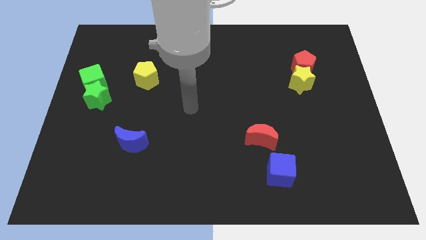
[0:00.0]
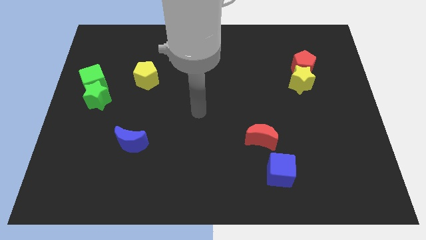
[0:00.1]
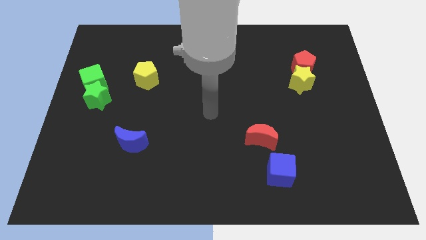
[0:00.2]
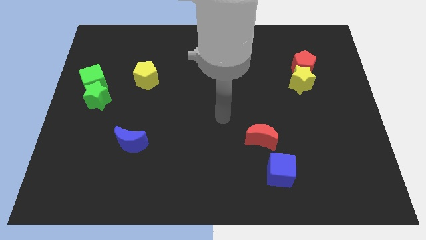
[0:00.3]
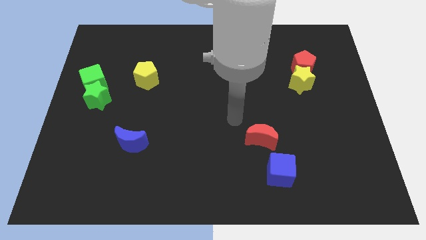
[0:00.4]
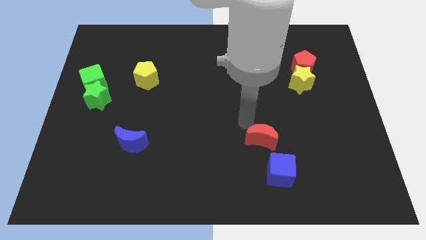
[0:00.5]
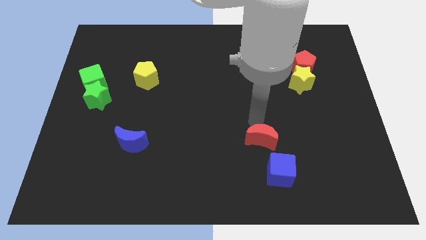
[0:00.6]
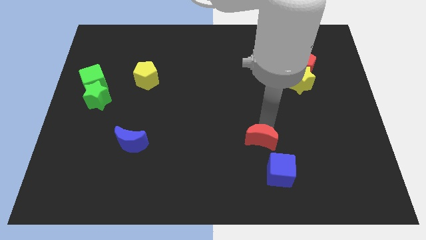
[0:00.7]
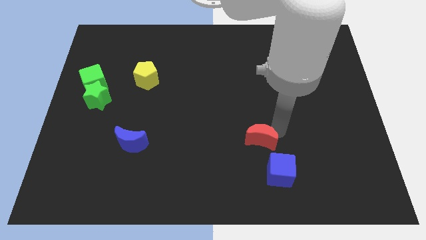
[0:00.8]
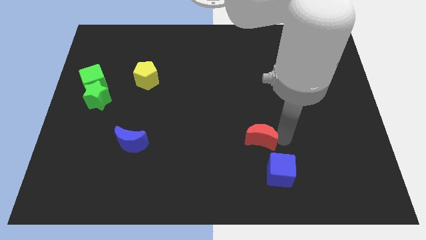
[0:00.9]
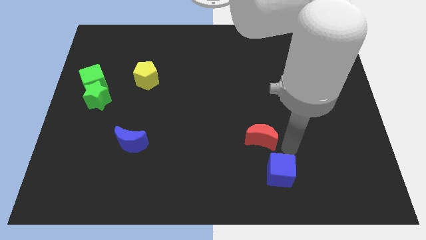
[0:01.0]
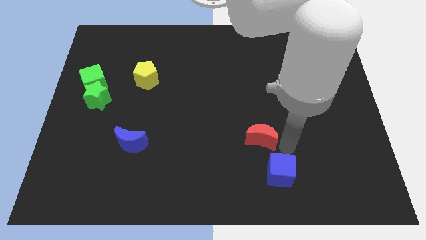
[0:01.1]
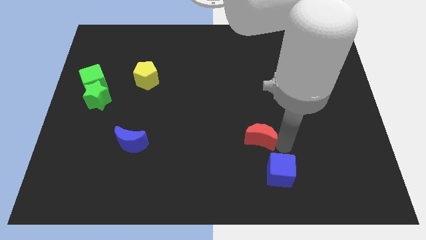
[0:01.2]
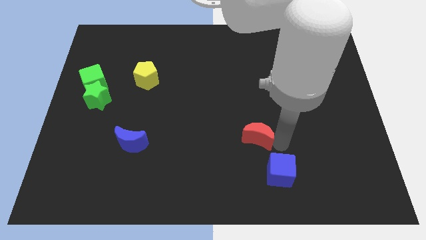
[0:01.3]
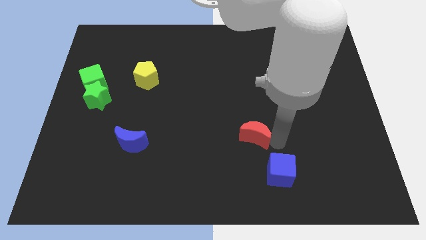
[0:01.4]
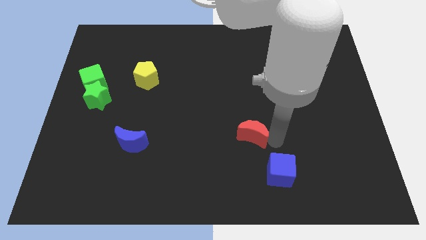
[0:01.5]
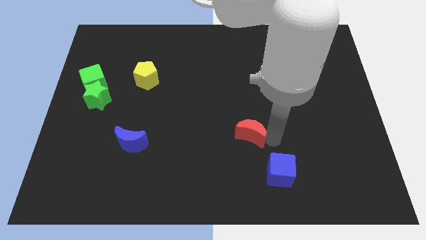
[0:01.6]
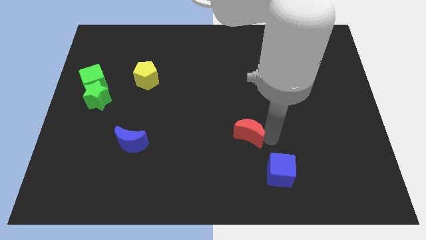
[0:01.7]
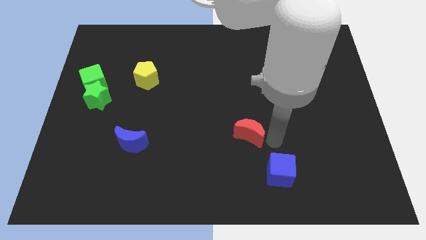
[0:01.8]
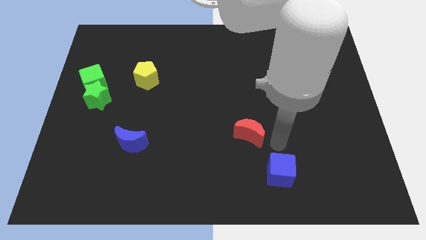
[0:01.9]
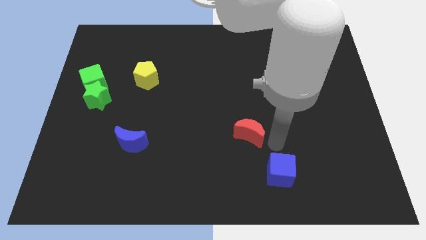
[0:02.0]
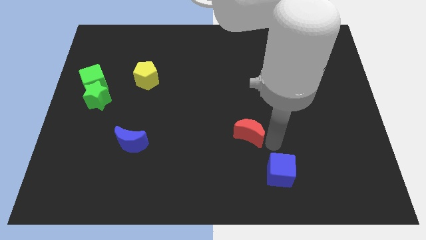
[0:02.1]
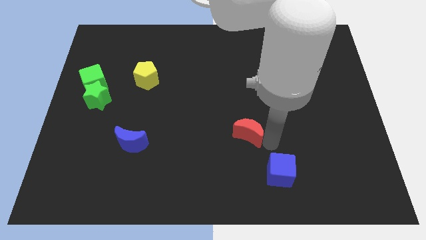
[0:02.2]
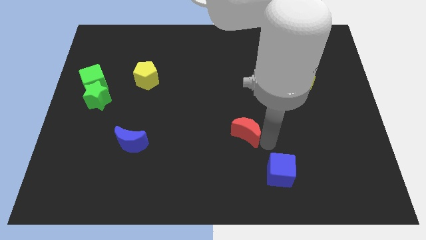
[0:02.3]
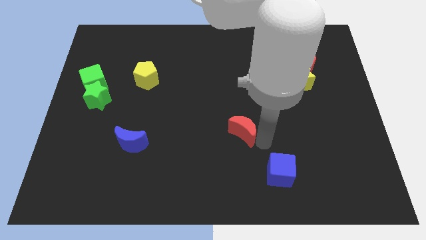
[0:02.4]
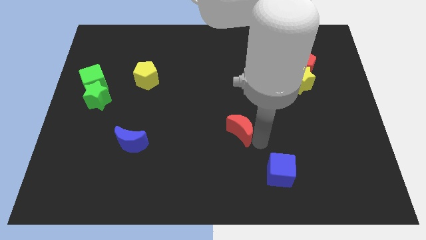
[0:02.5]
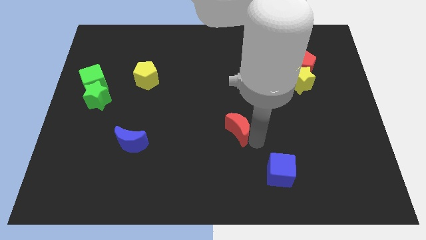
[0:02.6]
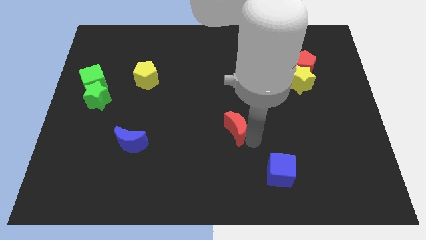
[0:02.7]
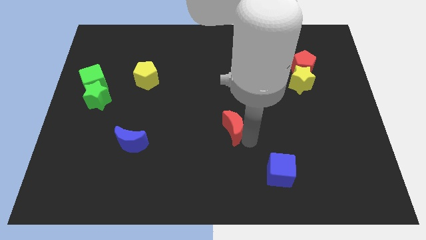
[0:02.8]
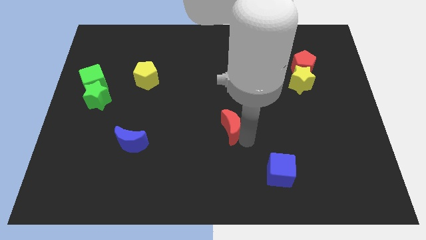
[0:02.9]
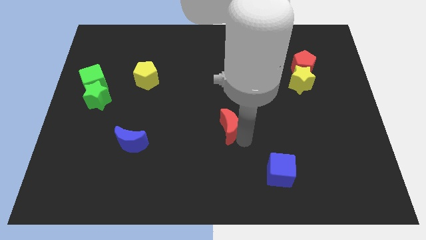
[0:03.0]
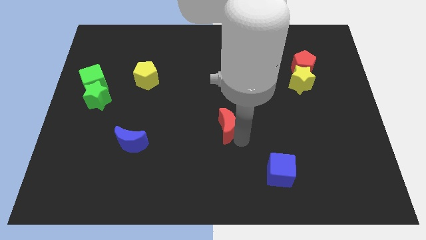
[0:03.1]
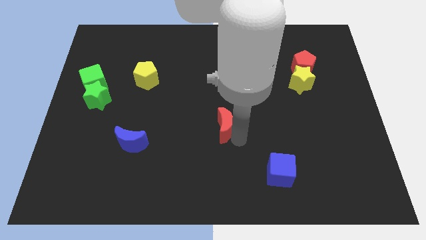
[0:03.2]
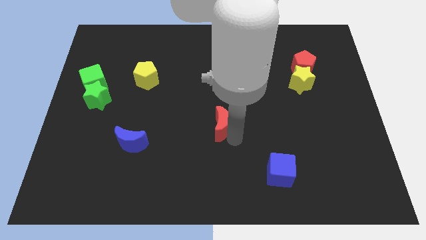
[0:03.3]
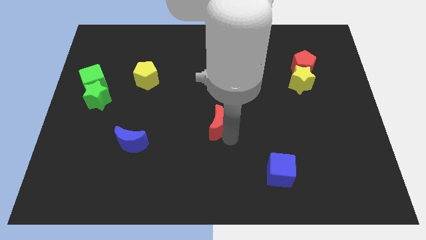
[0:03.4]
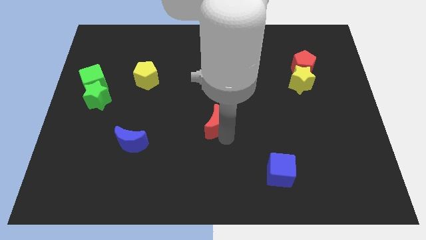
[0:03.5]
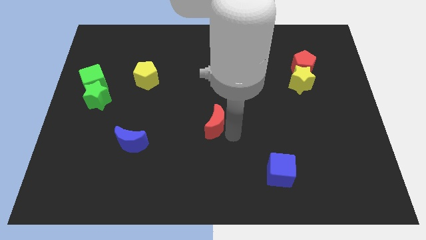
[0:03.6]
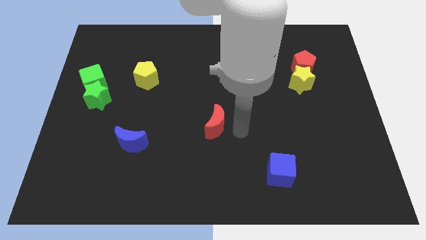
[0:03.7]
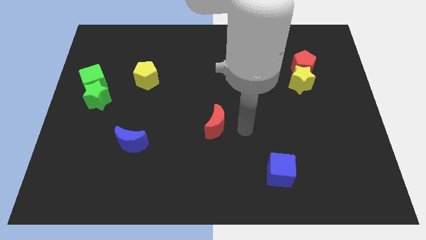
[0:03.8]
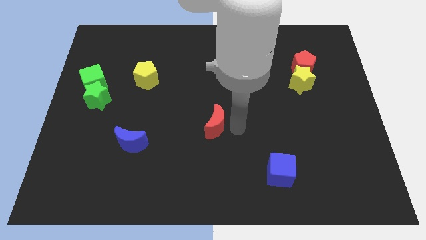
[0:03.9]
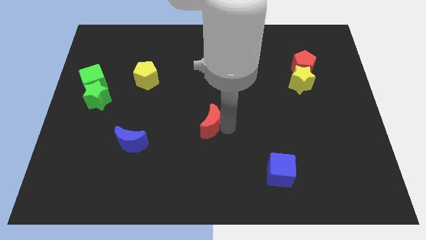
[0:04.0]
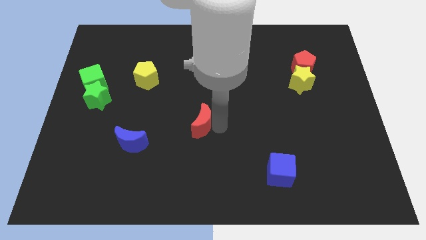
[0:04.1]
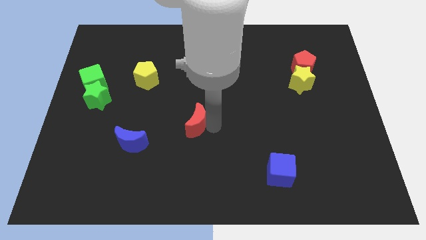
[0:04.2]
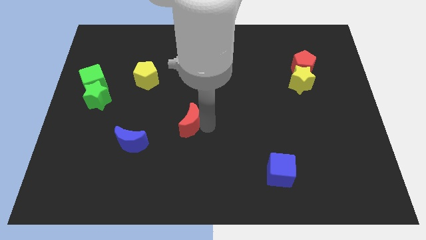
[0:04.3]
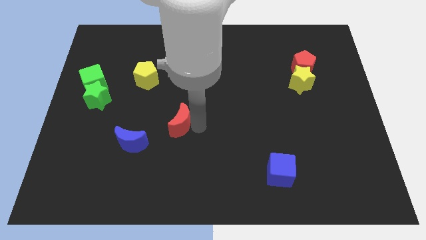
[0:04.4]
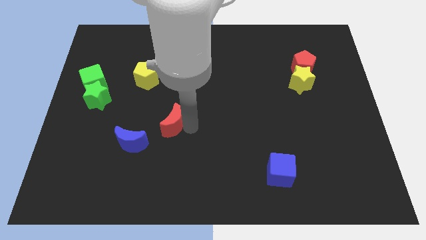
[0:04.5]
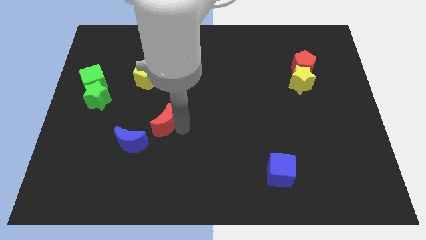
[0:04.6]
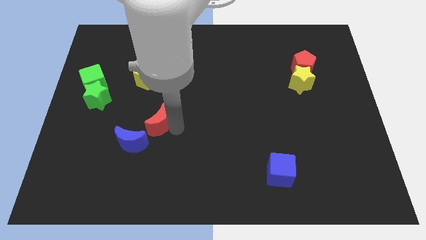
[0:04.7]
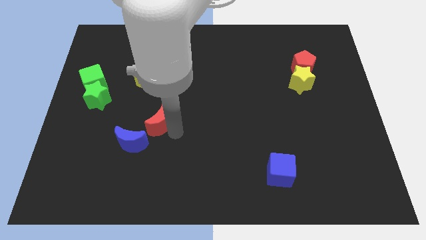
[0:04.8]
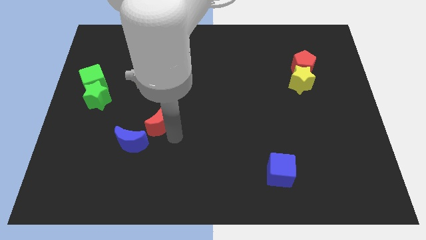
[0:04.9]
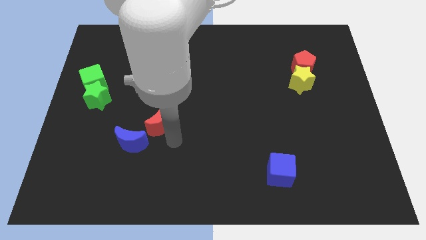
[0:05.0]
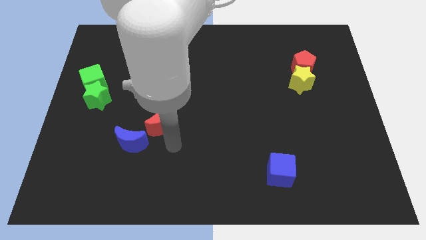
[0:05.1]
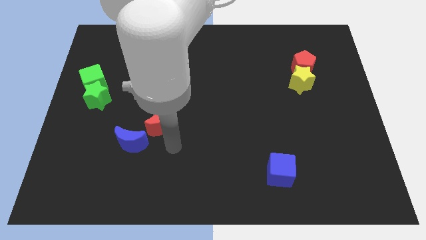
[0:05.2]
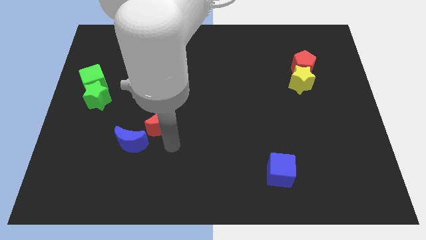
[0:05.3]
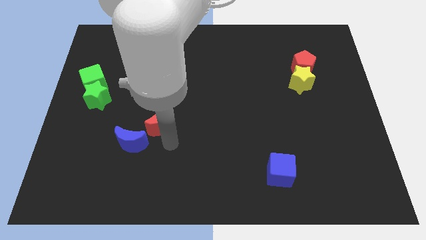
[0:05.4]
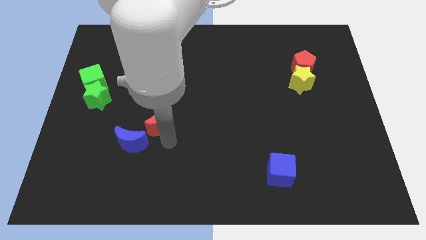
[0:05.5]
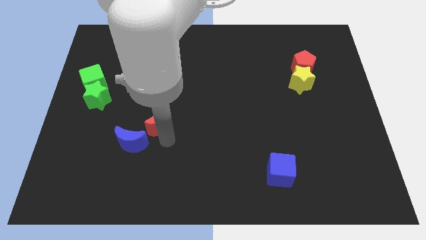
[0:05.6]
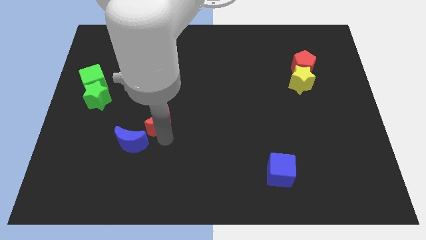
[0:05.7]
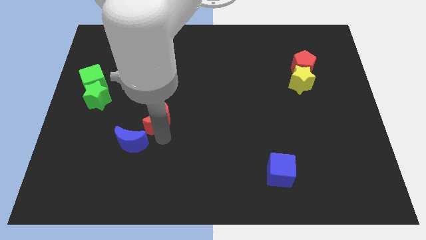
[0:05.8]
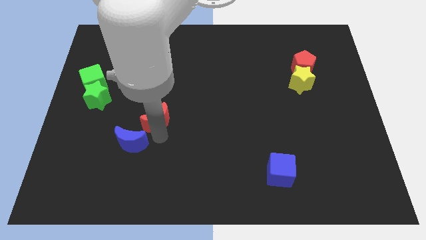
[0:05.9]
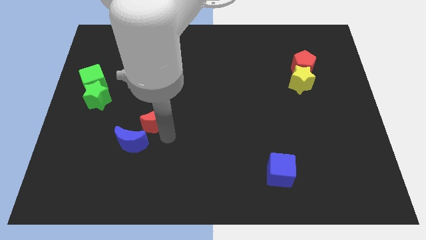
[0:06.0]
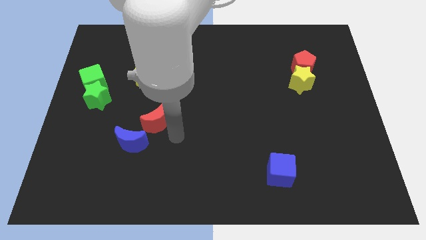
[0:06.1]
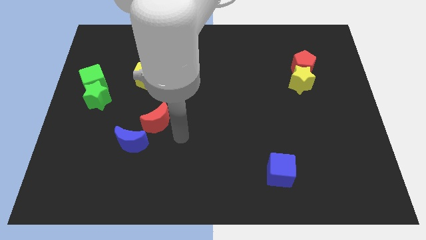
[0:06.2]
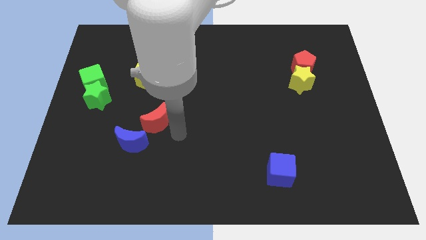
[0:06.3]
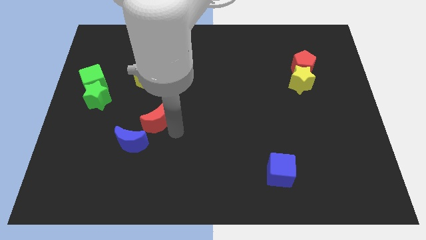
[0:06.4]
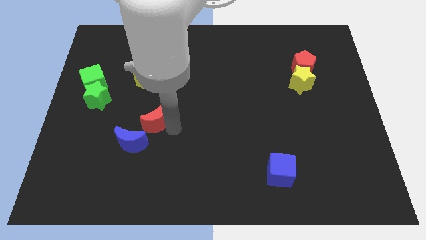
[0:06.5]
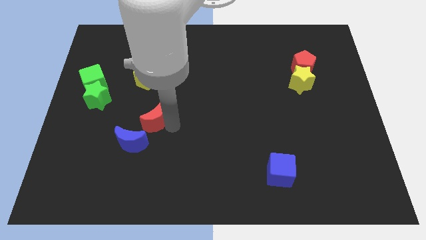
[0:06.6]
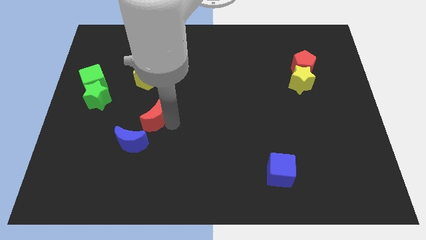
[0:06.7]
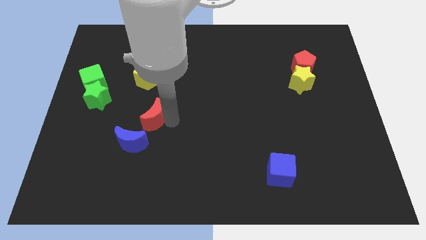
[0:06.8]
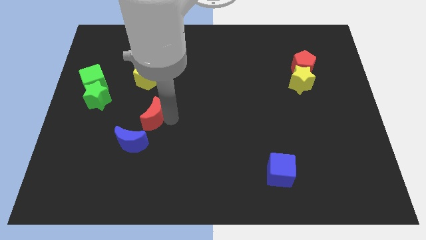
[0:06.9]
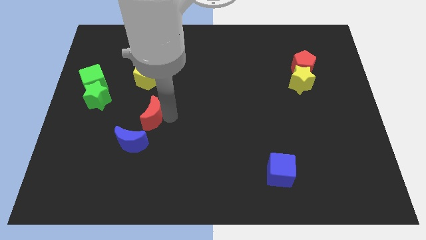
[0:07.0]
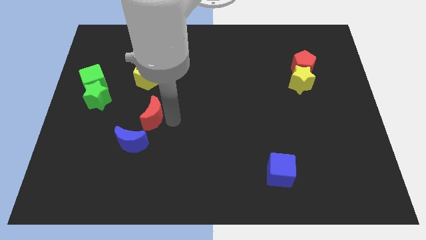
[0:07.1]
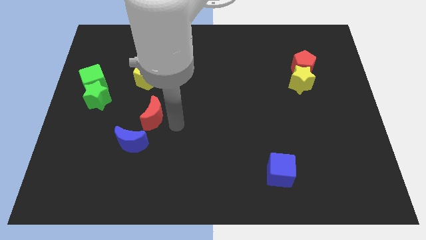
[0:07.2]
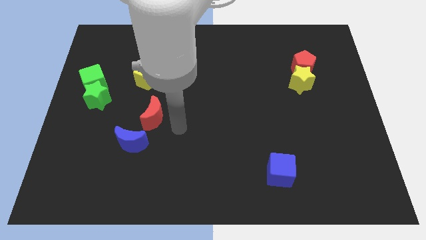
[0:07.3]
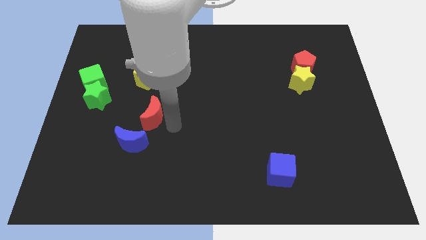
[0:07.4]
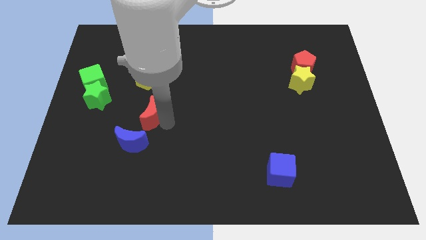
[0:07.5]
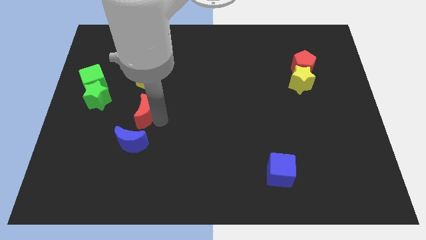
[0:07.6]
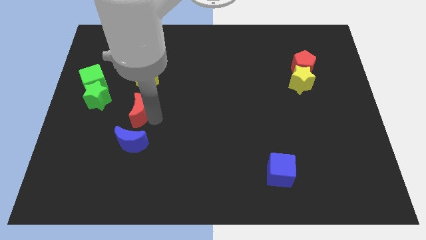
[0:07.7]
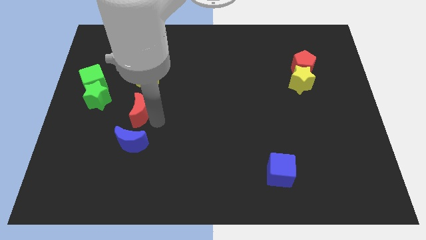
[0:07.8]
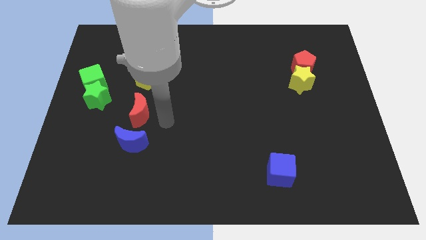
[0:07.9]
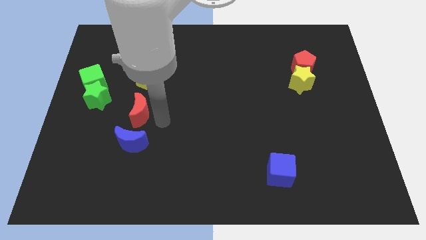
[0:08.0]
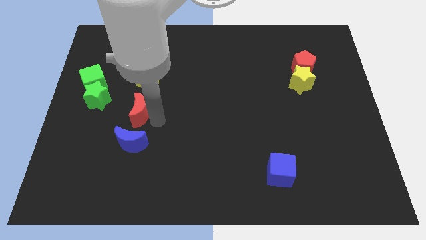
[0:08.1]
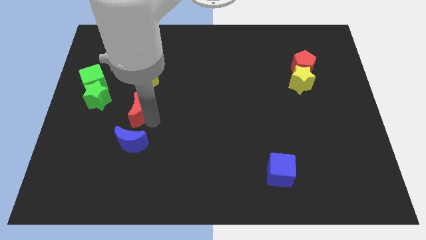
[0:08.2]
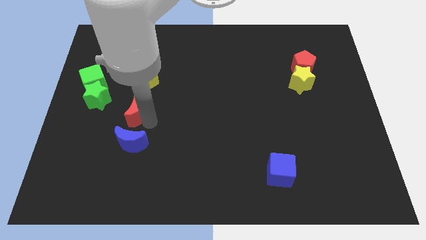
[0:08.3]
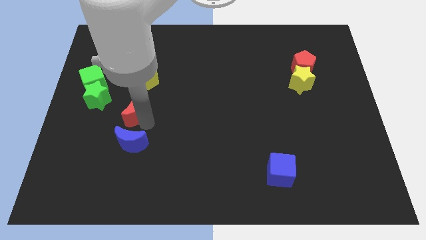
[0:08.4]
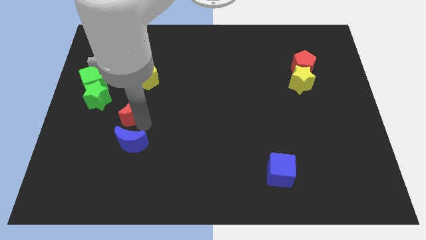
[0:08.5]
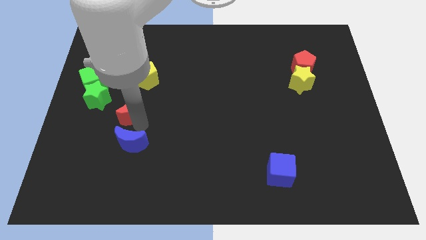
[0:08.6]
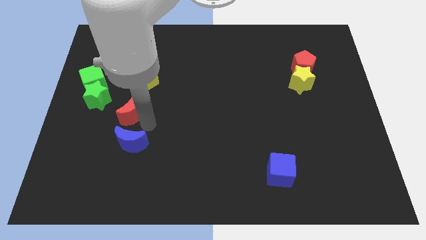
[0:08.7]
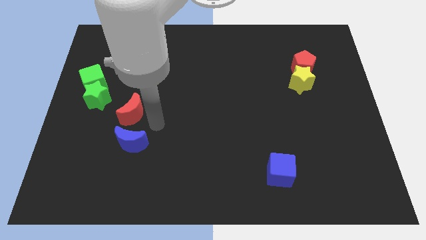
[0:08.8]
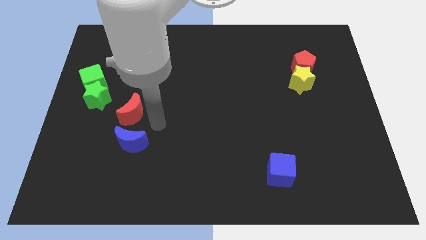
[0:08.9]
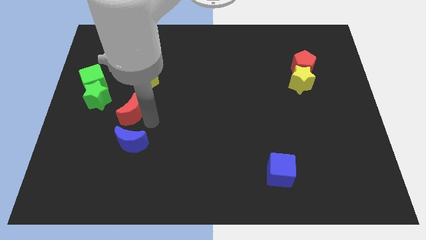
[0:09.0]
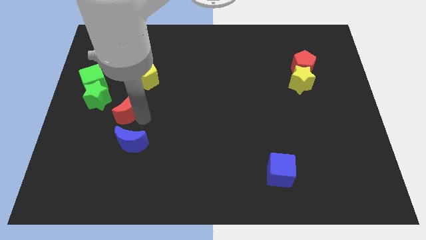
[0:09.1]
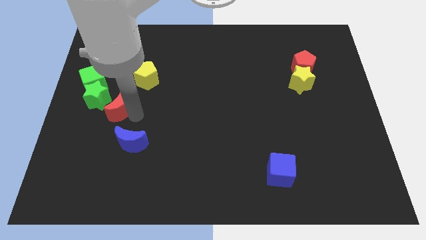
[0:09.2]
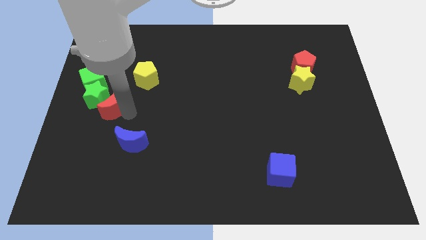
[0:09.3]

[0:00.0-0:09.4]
slide the red moon close to the green star
